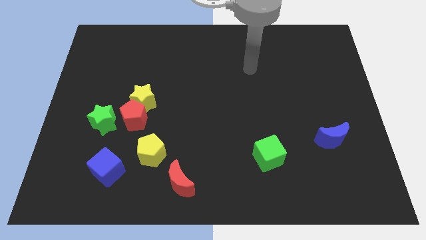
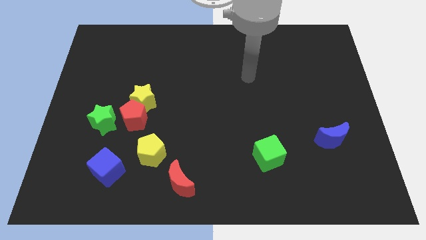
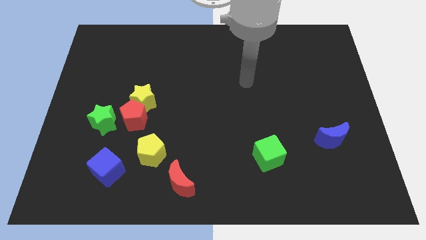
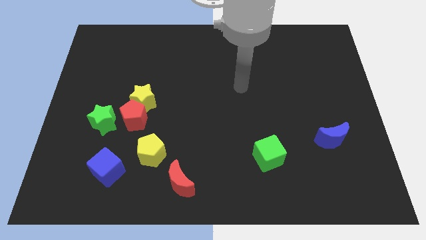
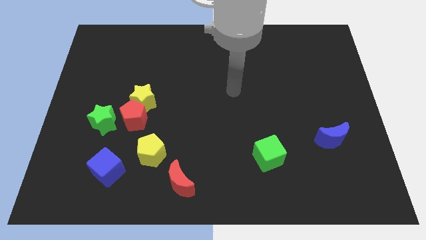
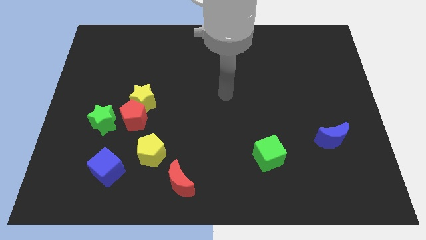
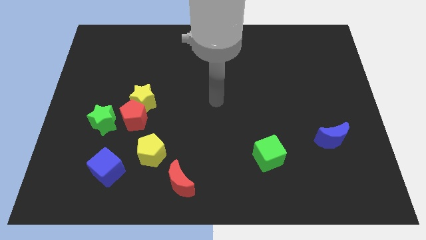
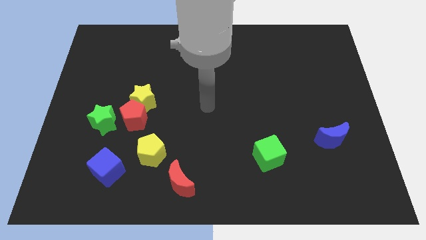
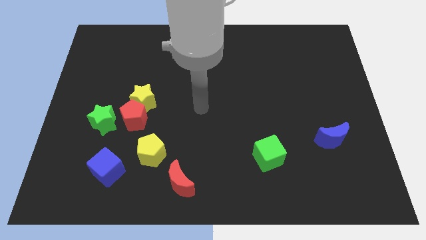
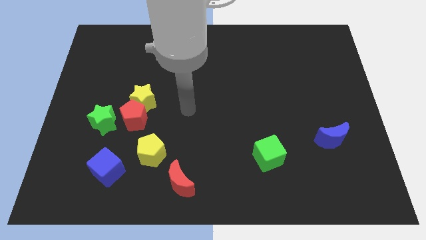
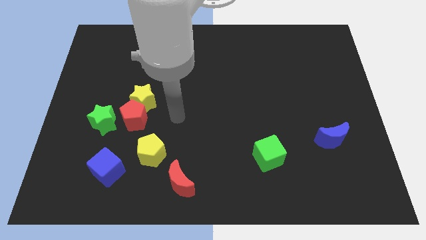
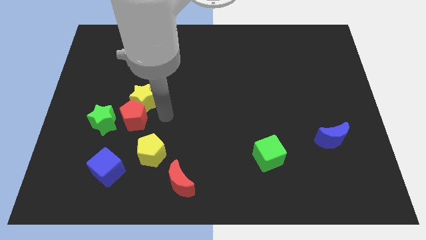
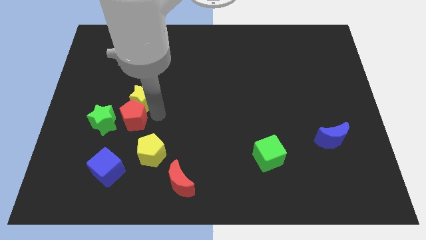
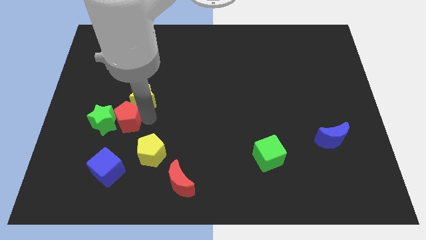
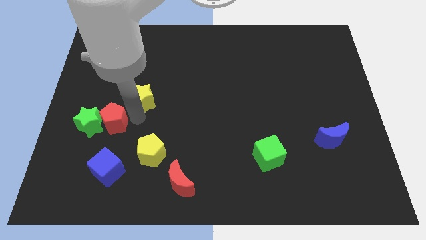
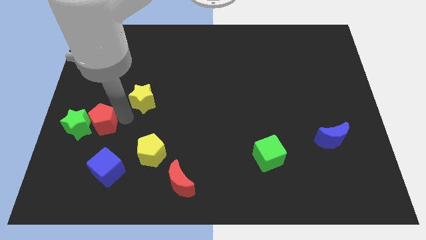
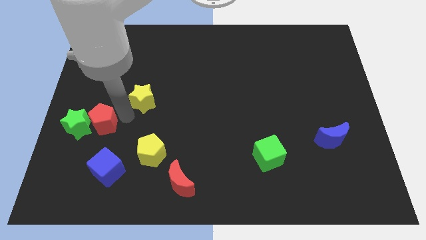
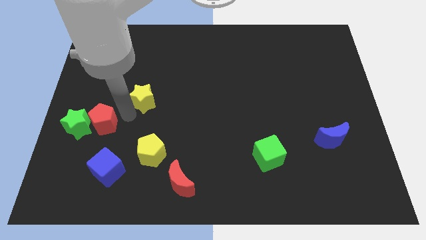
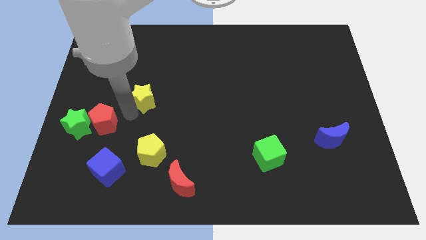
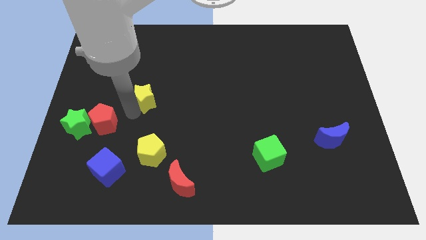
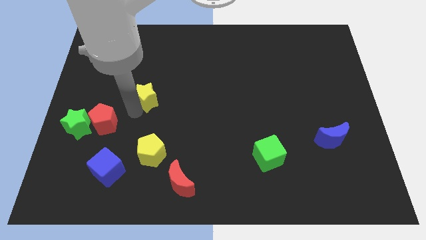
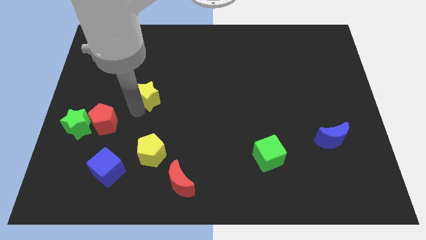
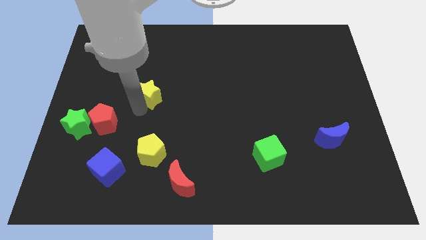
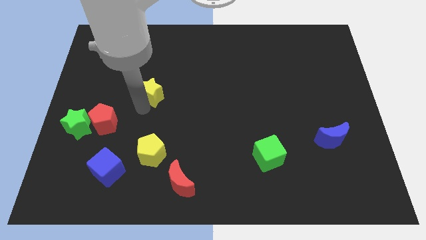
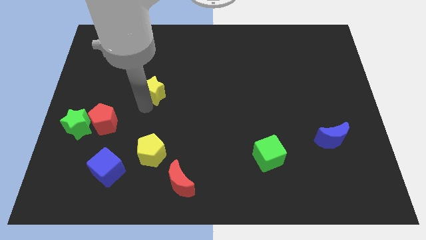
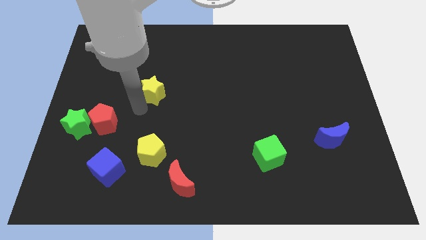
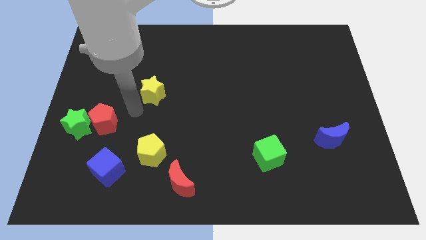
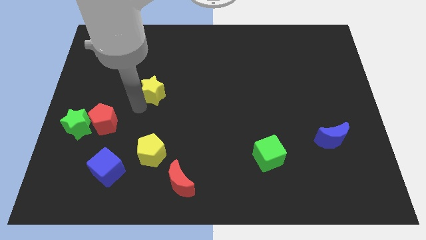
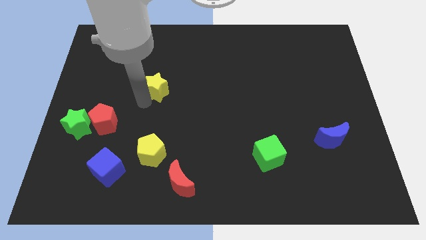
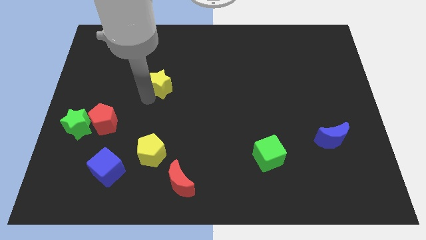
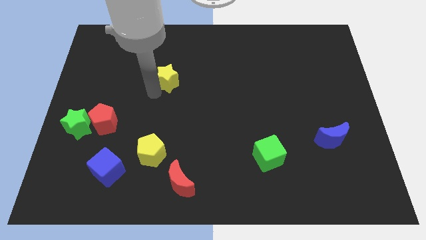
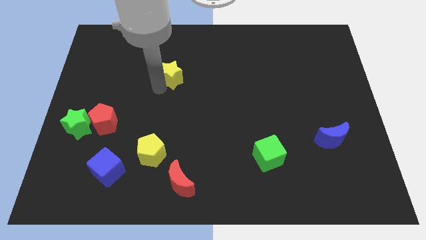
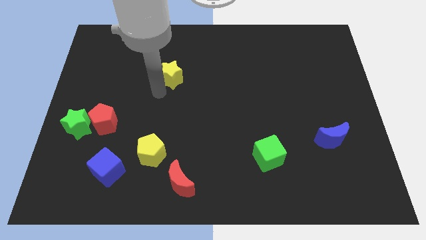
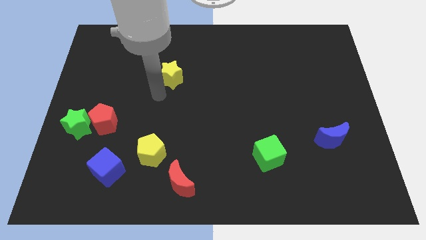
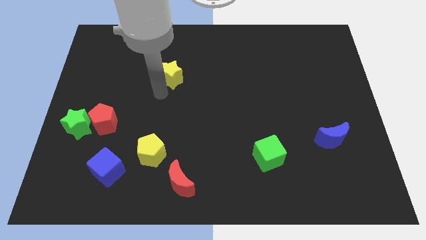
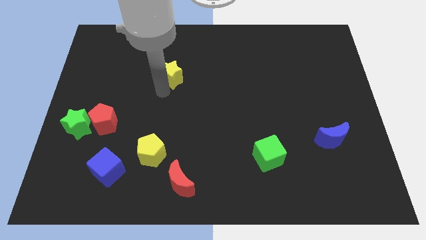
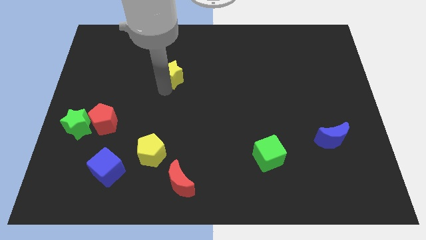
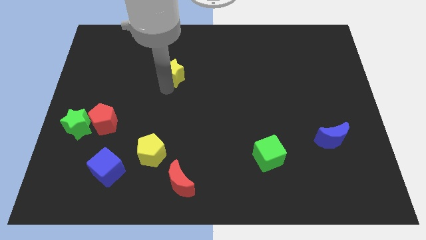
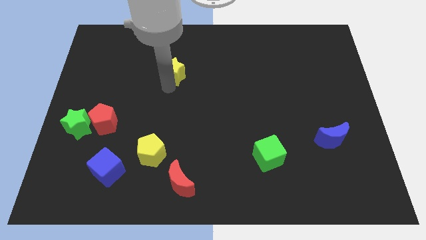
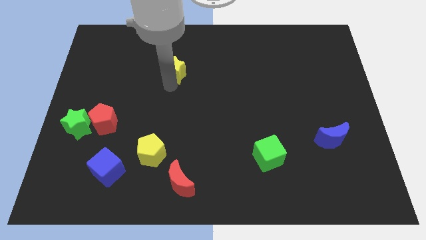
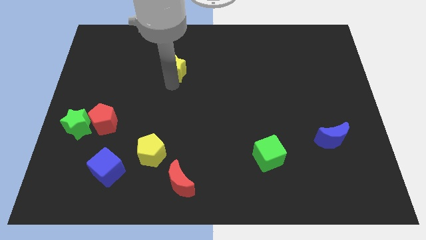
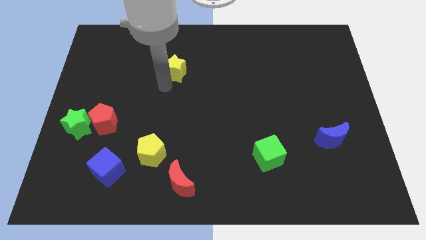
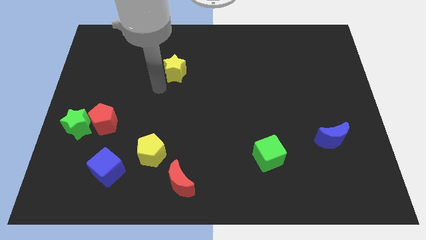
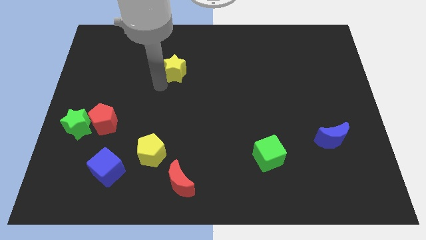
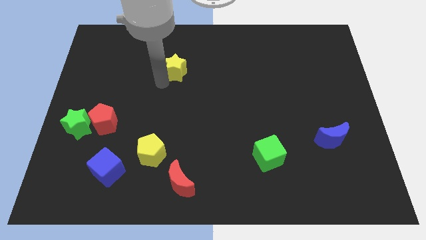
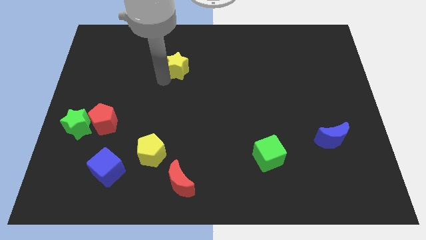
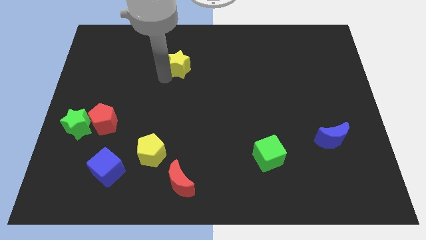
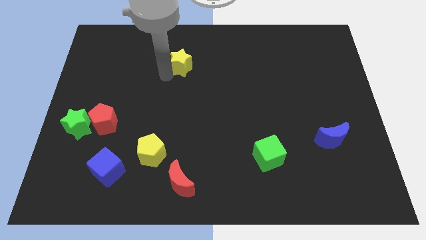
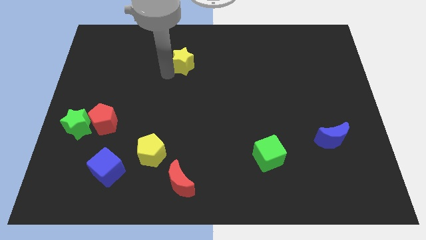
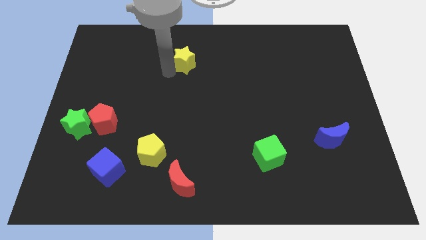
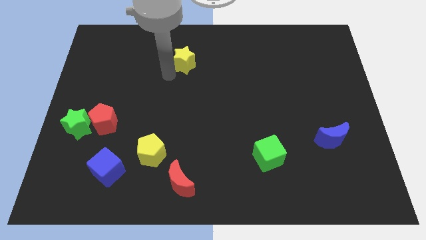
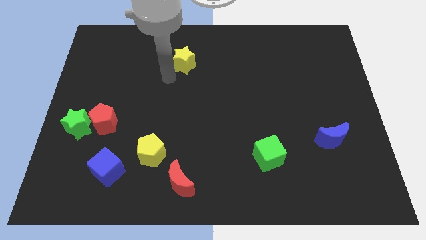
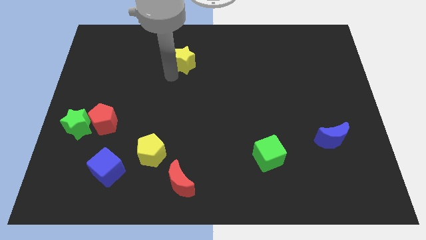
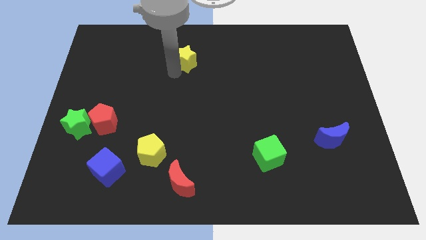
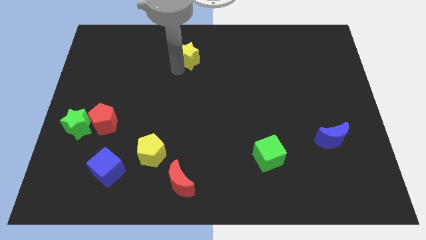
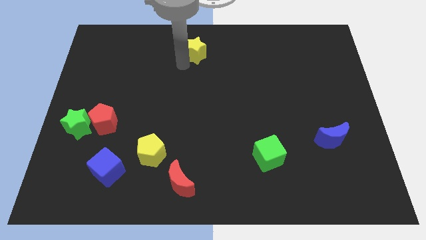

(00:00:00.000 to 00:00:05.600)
slide the yellow star to the towards your base

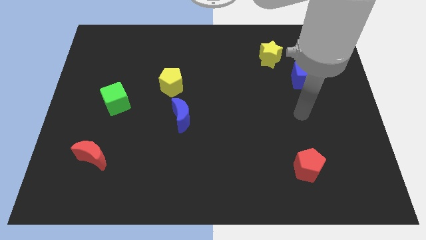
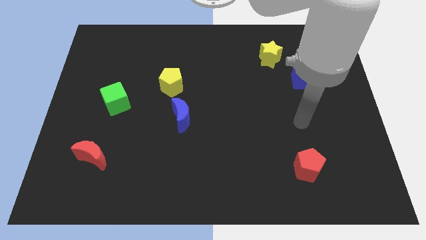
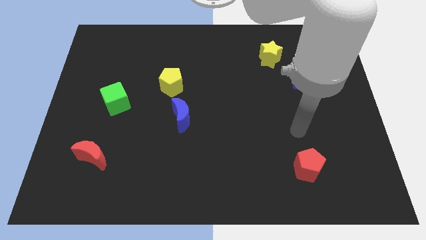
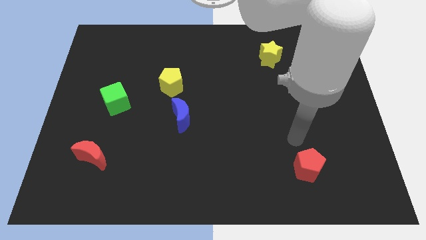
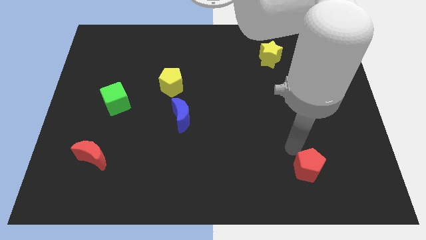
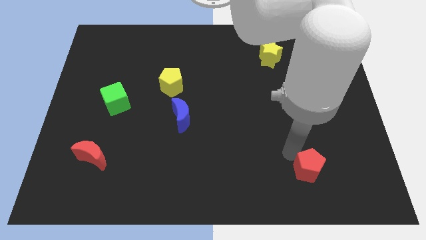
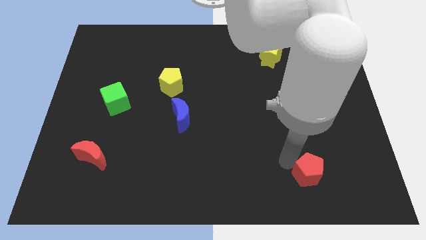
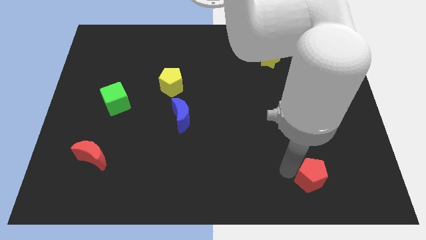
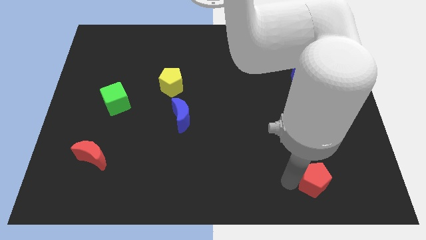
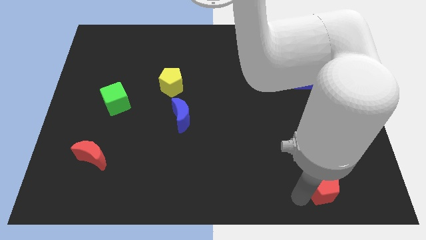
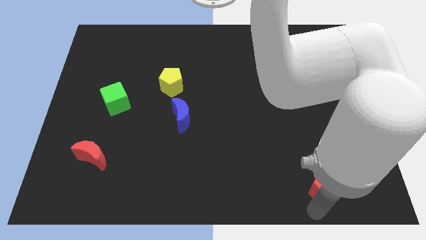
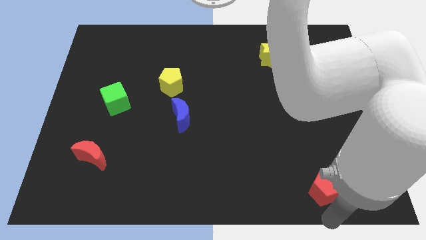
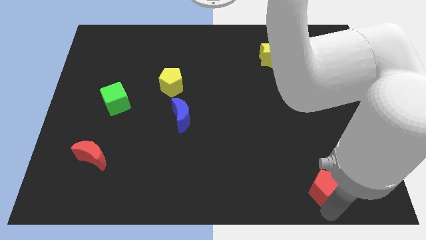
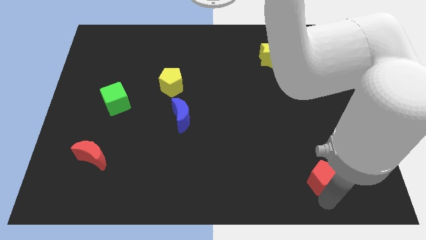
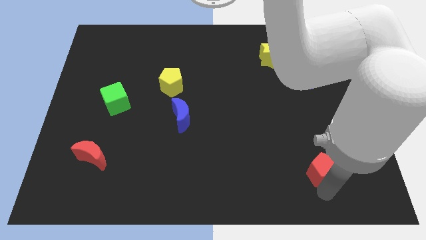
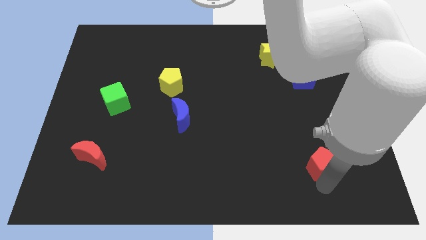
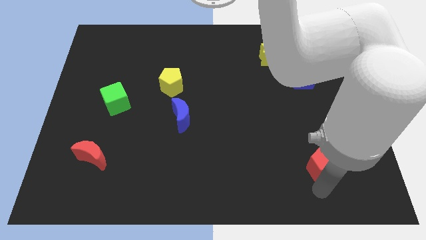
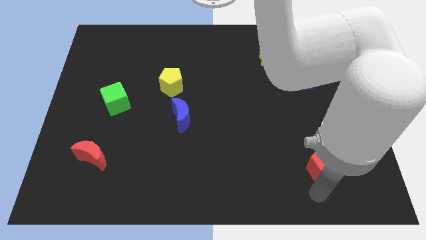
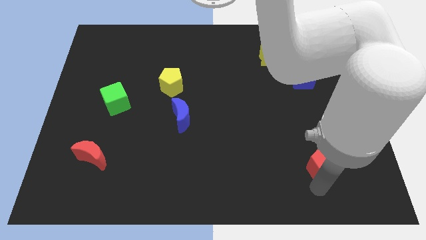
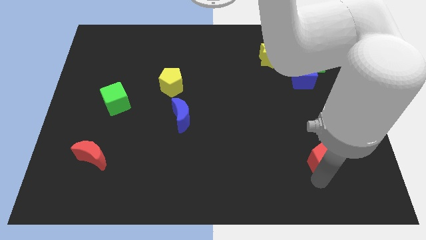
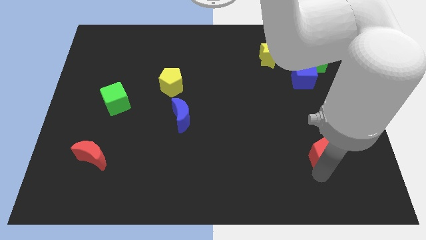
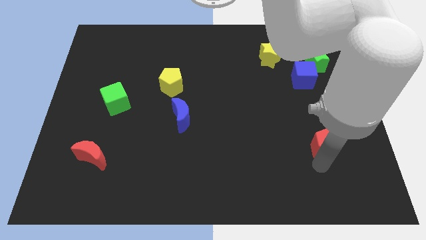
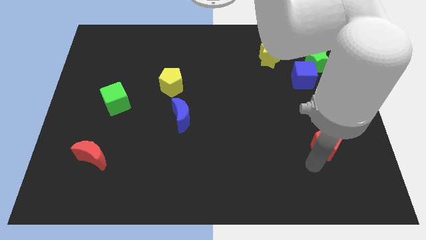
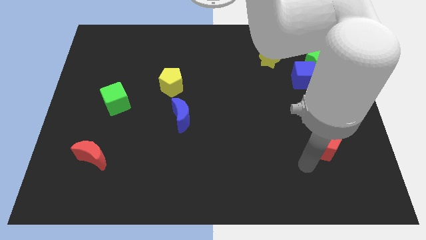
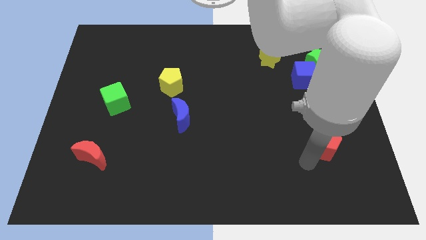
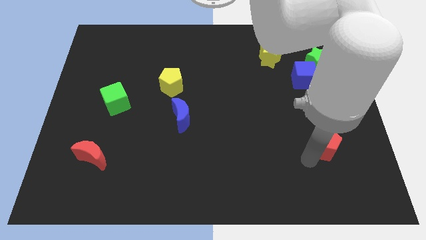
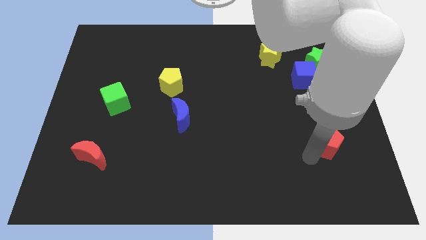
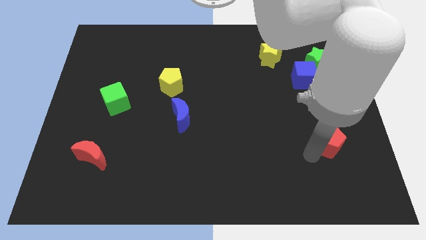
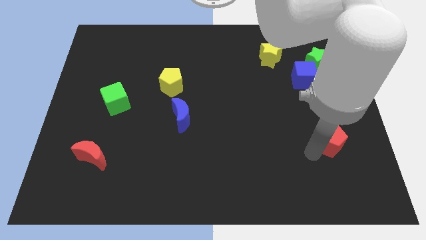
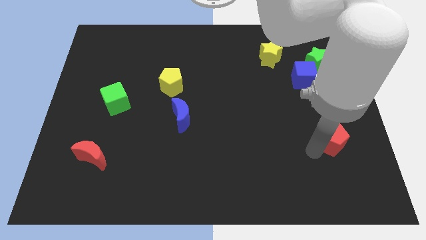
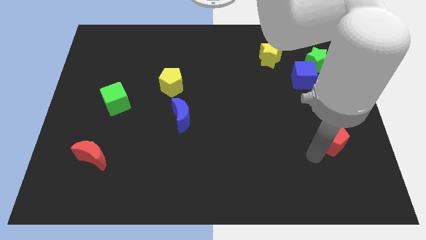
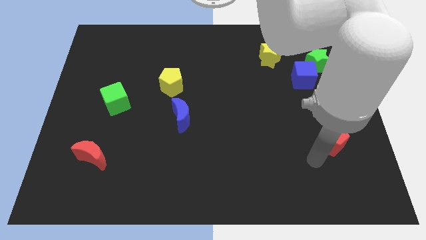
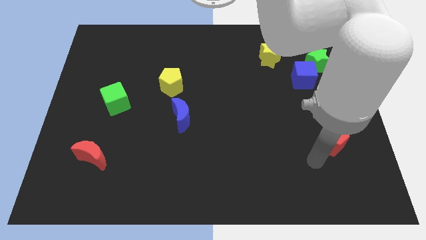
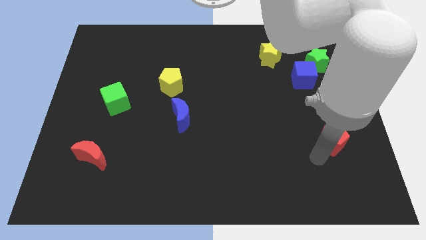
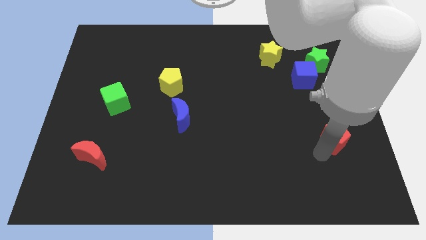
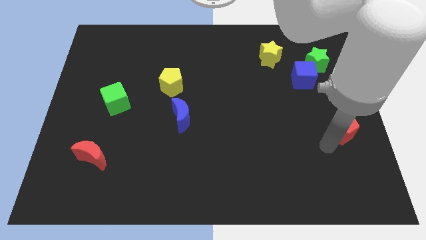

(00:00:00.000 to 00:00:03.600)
slide the red pentagon to the center right
